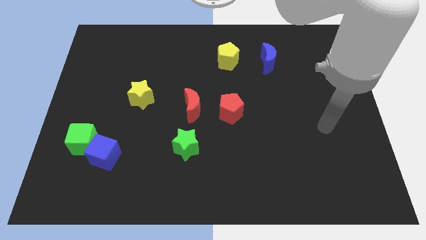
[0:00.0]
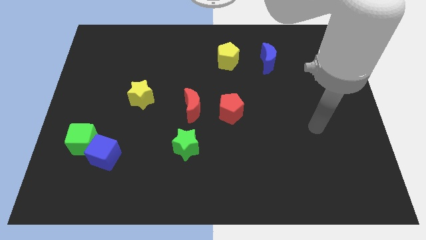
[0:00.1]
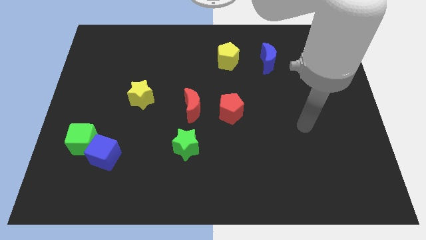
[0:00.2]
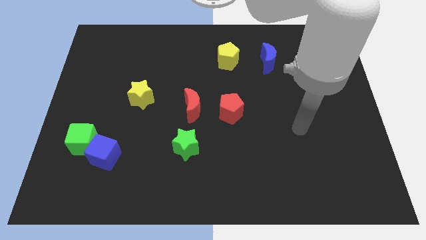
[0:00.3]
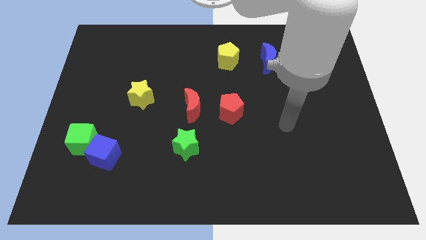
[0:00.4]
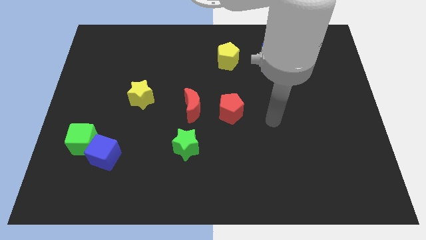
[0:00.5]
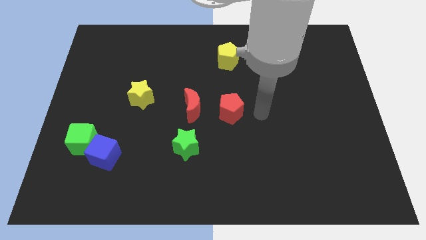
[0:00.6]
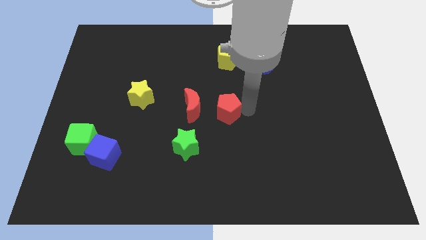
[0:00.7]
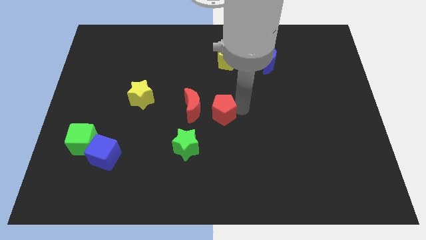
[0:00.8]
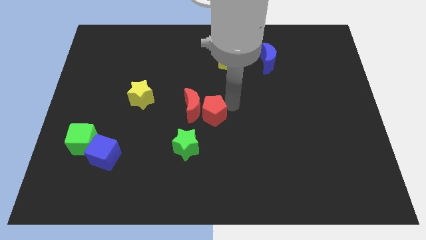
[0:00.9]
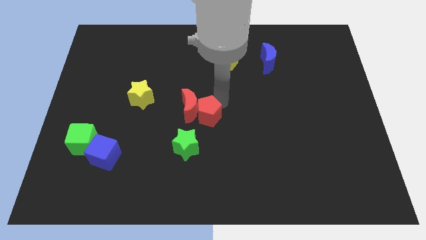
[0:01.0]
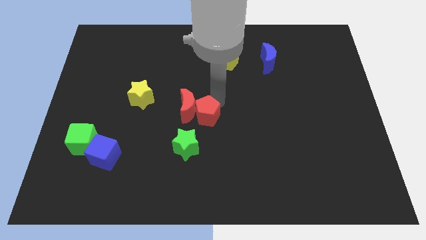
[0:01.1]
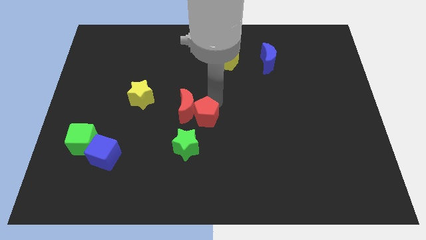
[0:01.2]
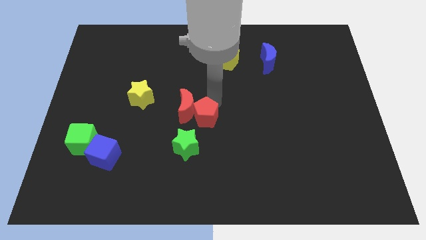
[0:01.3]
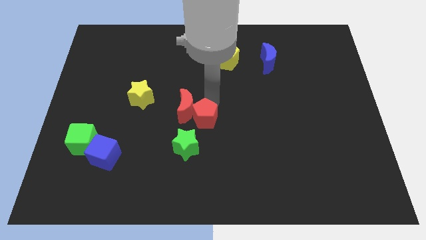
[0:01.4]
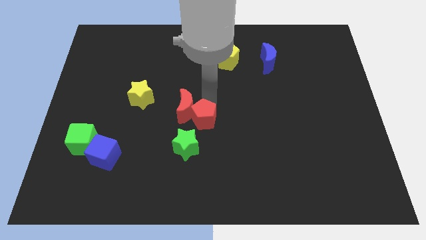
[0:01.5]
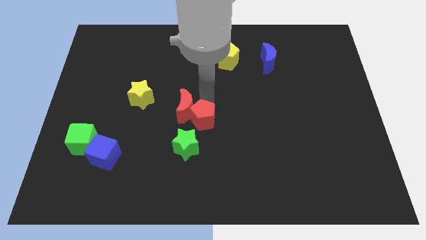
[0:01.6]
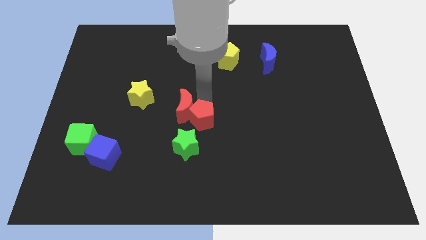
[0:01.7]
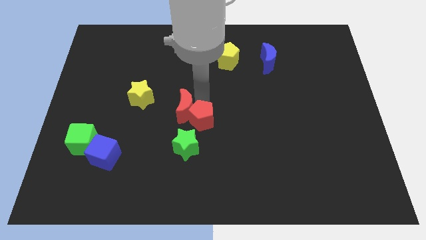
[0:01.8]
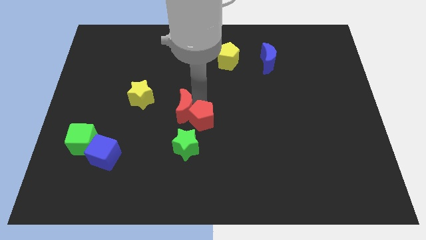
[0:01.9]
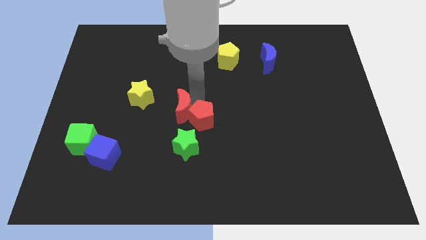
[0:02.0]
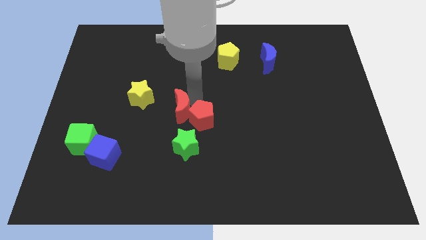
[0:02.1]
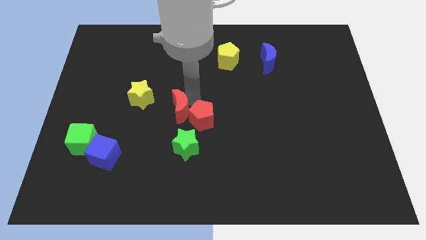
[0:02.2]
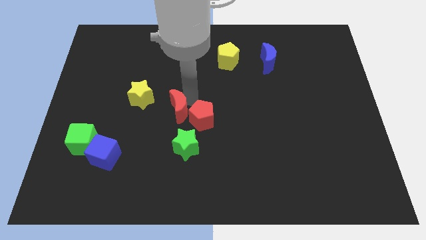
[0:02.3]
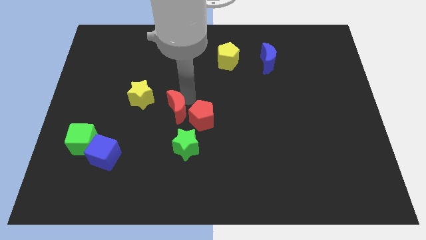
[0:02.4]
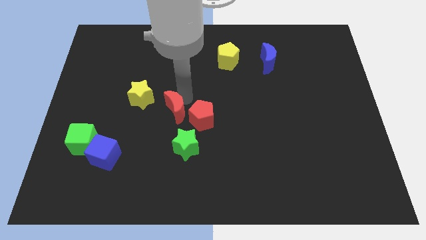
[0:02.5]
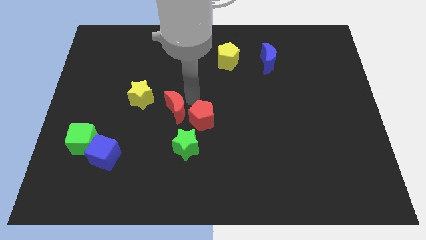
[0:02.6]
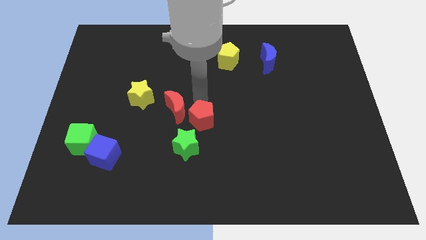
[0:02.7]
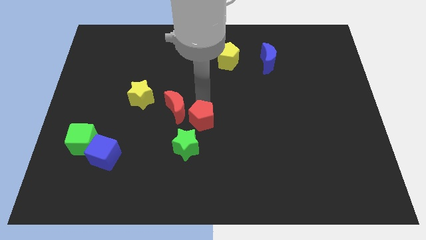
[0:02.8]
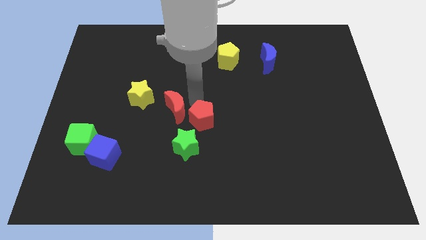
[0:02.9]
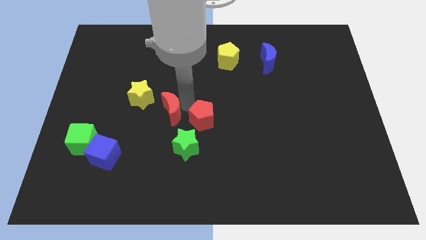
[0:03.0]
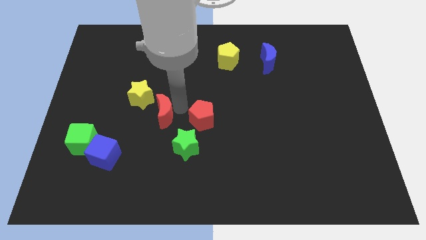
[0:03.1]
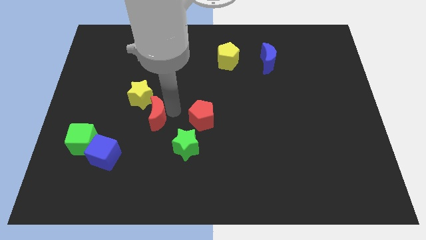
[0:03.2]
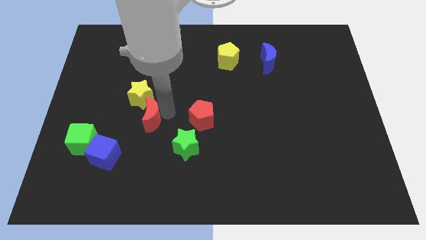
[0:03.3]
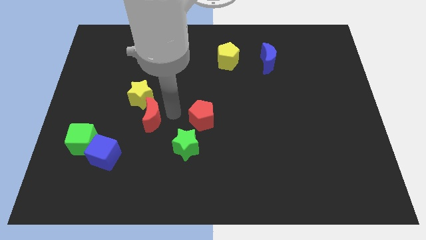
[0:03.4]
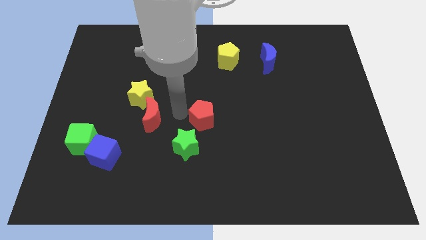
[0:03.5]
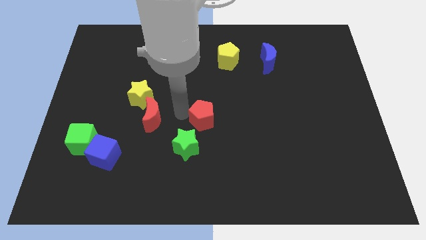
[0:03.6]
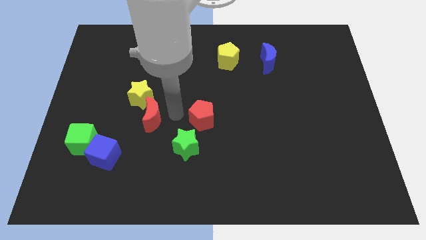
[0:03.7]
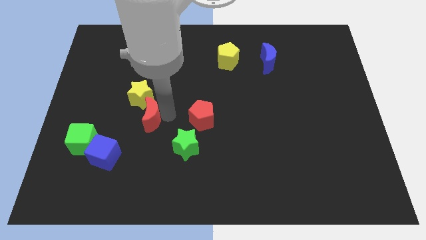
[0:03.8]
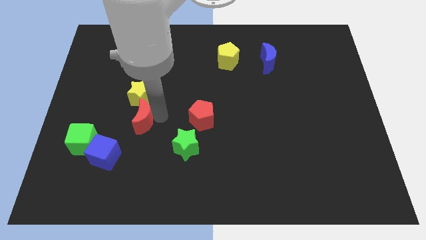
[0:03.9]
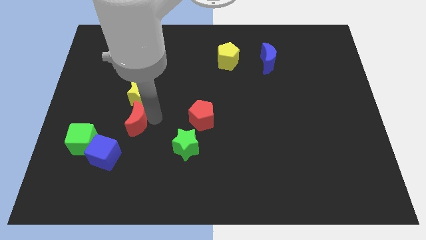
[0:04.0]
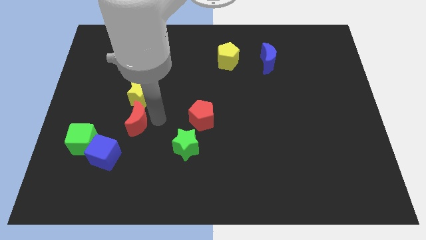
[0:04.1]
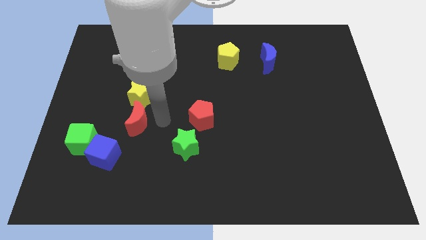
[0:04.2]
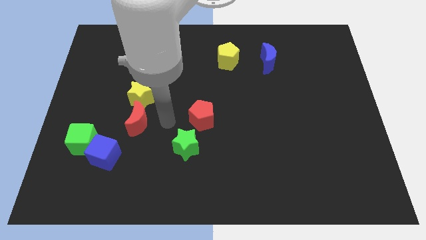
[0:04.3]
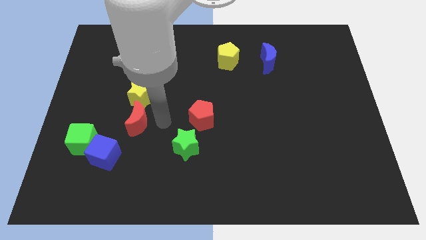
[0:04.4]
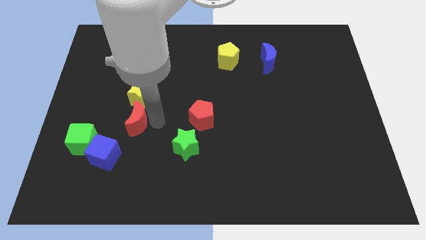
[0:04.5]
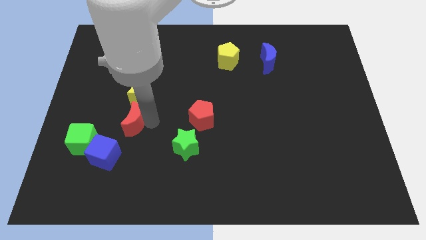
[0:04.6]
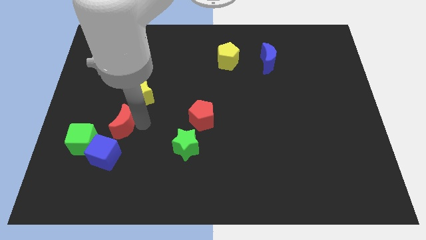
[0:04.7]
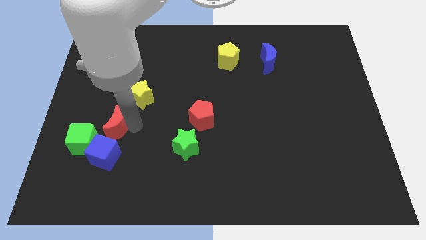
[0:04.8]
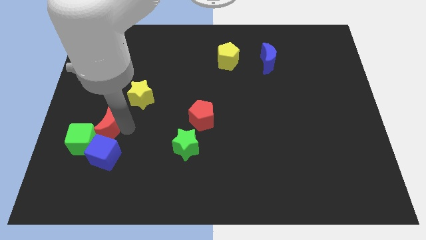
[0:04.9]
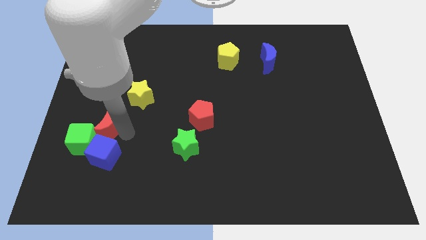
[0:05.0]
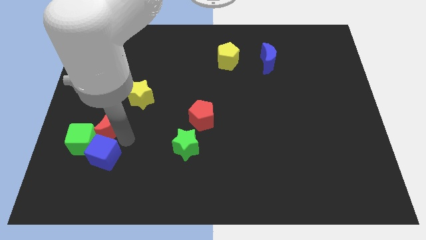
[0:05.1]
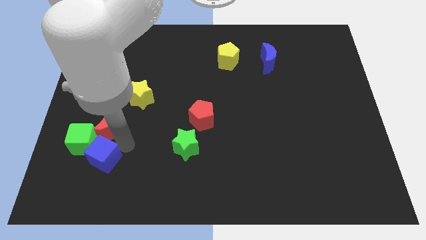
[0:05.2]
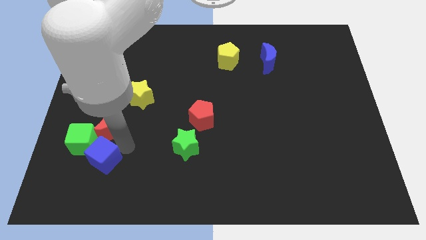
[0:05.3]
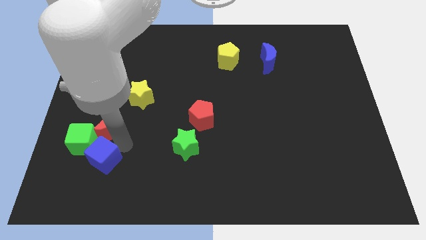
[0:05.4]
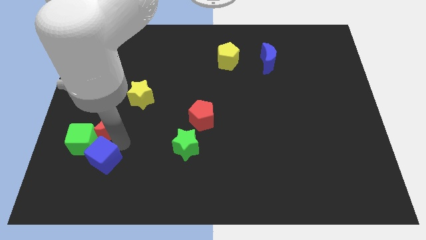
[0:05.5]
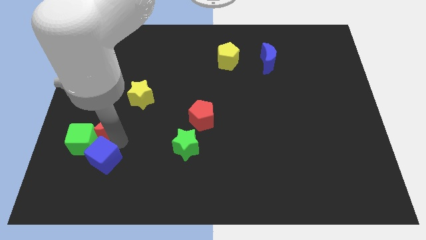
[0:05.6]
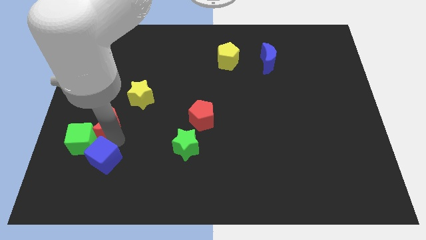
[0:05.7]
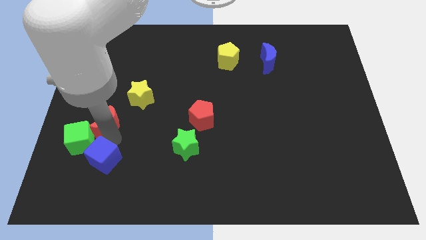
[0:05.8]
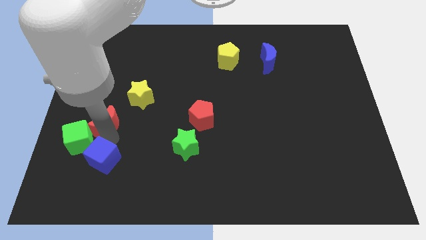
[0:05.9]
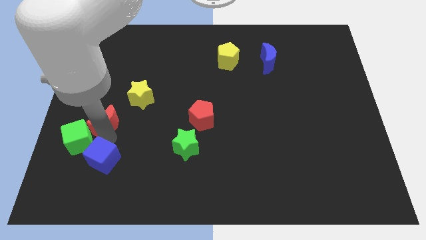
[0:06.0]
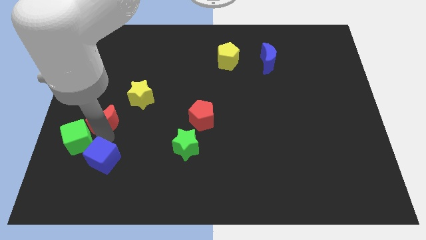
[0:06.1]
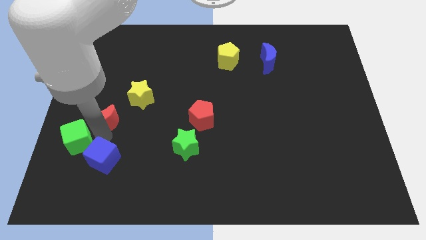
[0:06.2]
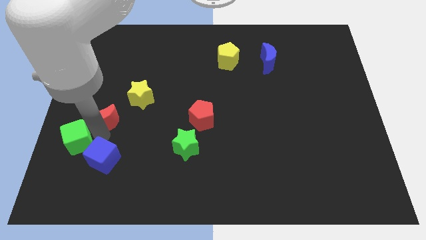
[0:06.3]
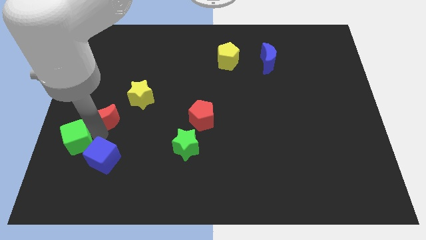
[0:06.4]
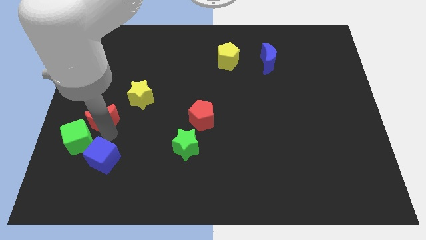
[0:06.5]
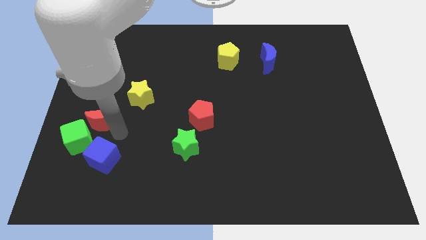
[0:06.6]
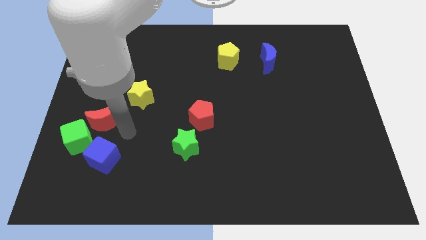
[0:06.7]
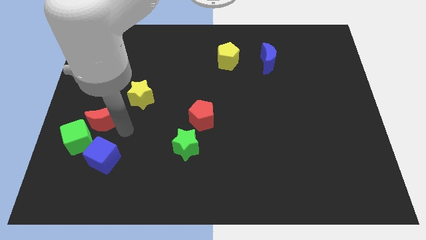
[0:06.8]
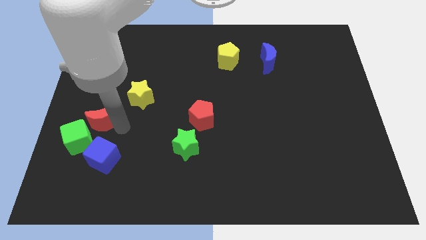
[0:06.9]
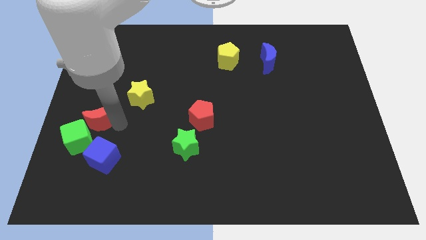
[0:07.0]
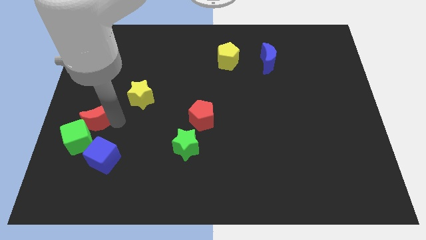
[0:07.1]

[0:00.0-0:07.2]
put the red moon to the center left
